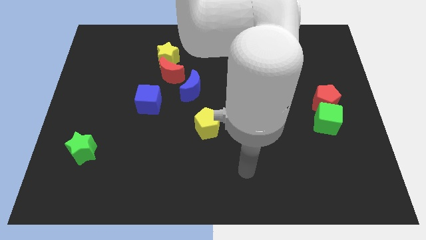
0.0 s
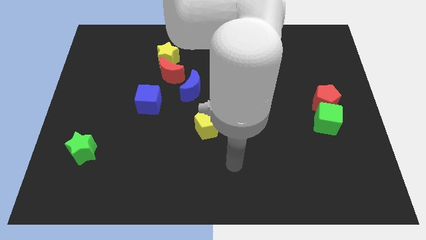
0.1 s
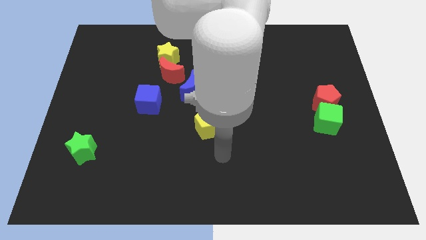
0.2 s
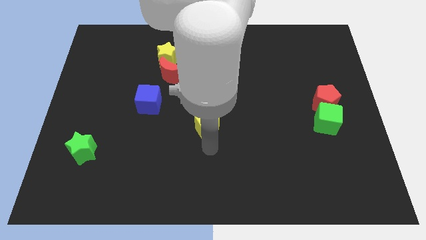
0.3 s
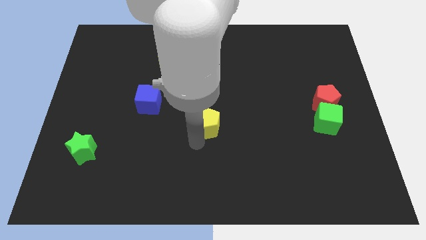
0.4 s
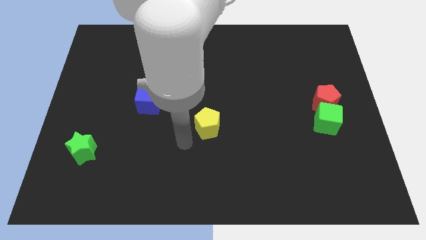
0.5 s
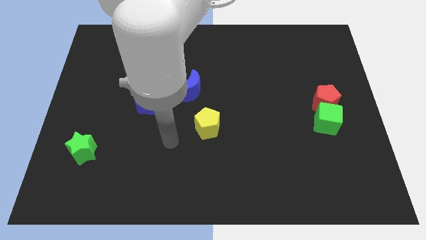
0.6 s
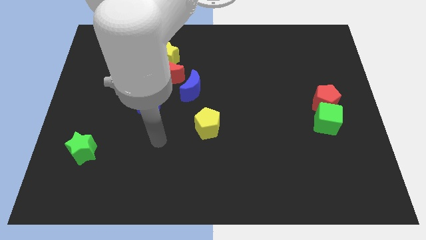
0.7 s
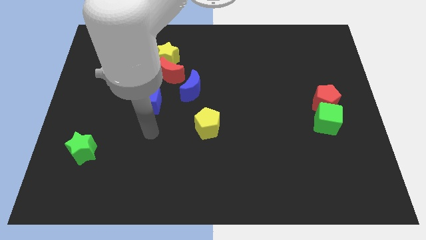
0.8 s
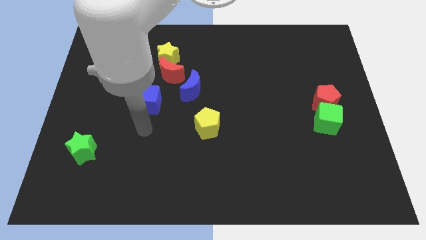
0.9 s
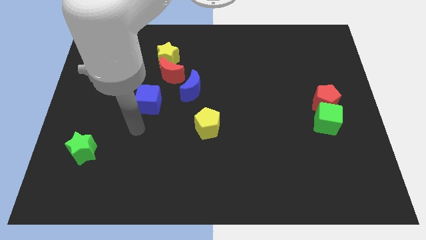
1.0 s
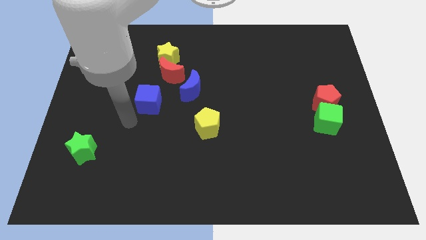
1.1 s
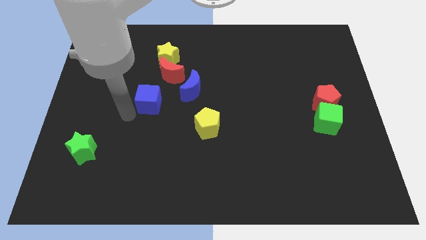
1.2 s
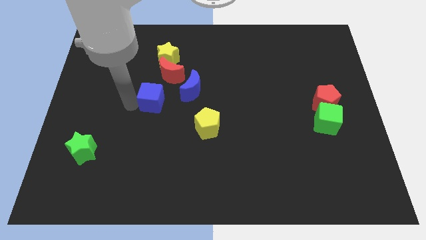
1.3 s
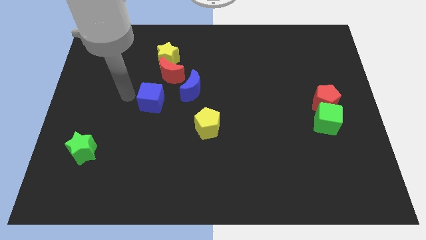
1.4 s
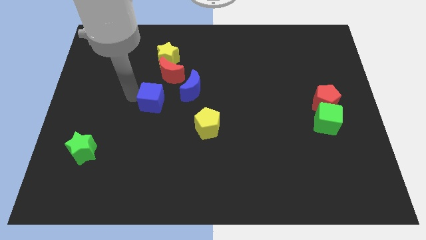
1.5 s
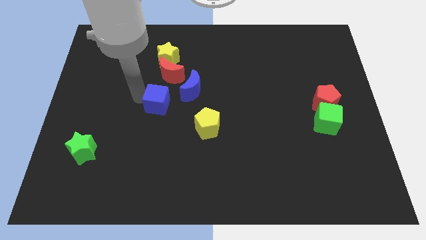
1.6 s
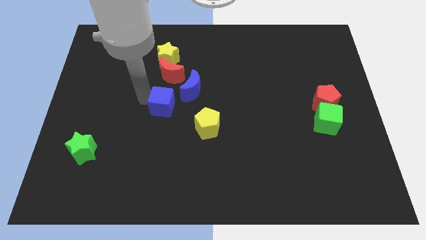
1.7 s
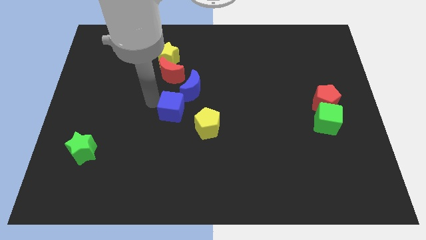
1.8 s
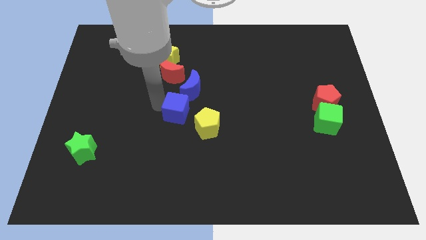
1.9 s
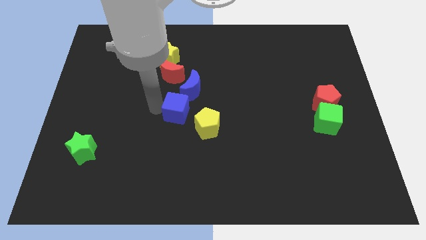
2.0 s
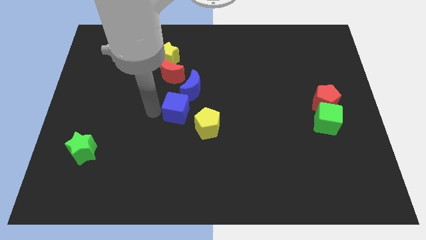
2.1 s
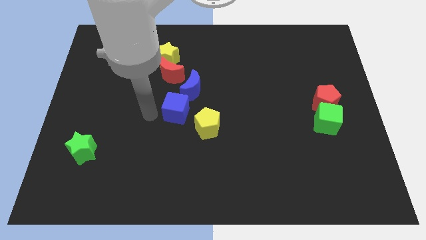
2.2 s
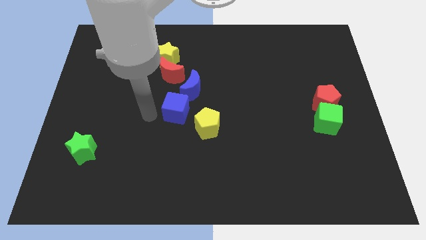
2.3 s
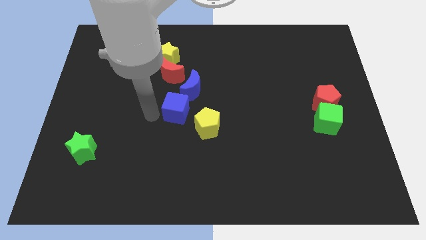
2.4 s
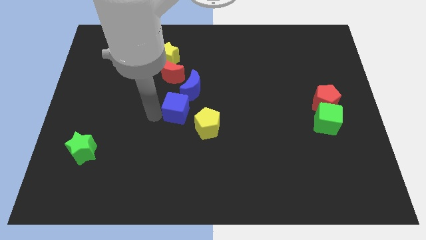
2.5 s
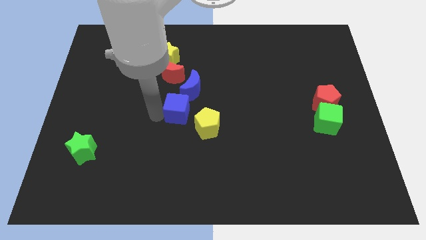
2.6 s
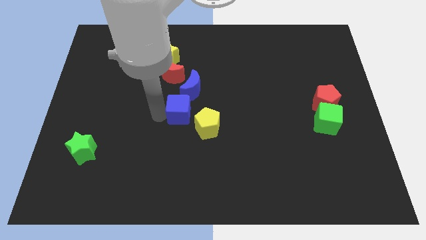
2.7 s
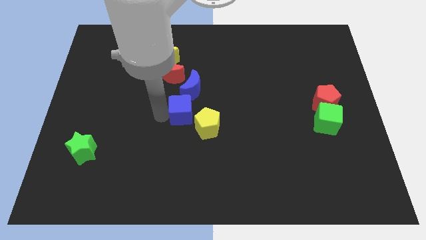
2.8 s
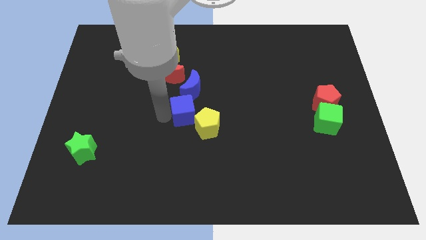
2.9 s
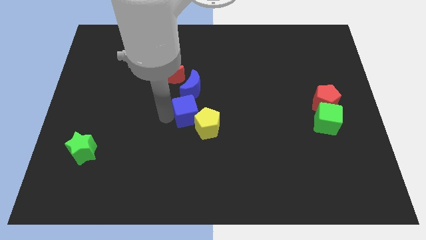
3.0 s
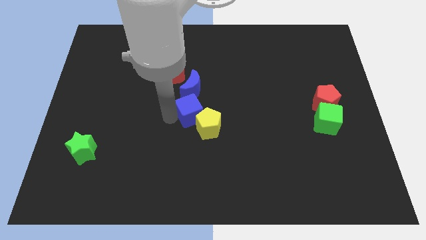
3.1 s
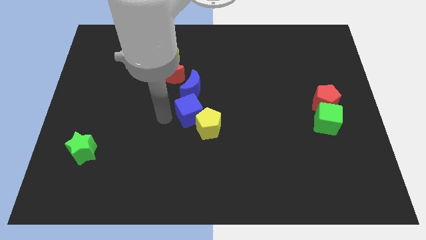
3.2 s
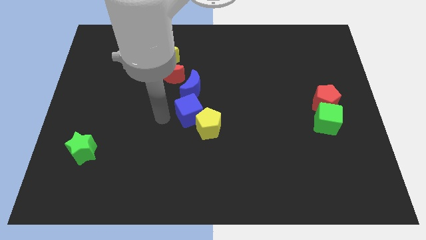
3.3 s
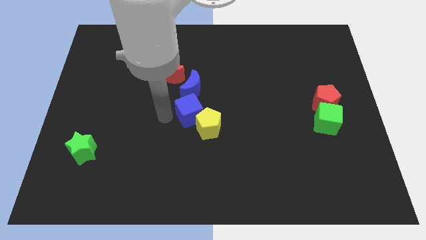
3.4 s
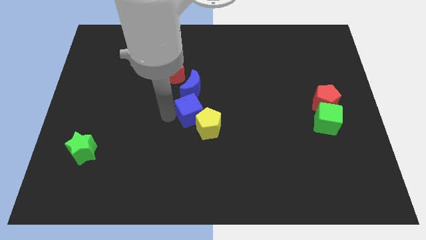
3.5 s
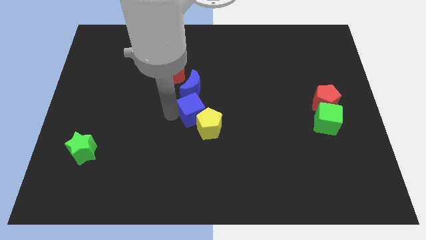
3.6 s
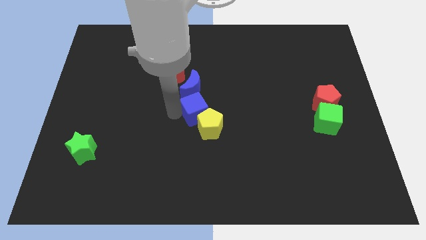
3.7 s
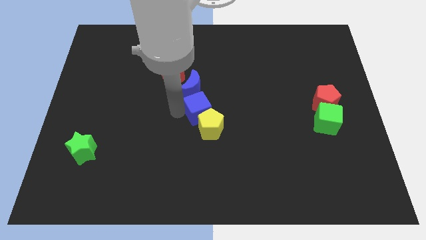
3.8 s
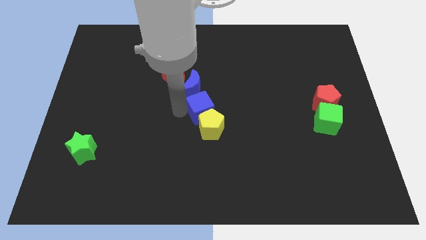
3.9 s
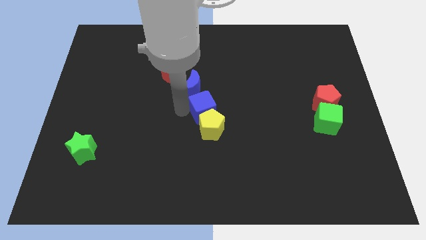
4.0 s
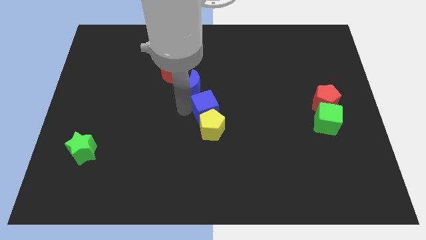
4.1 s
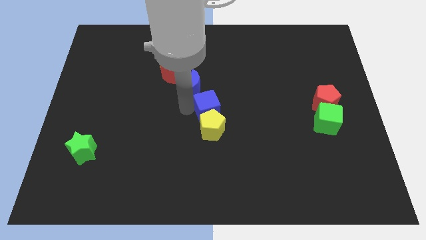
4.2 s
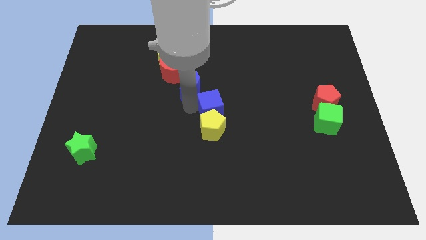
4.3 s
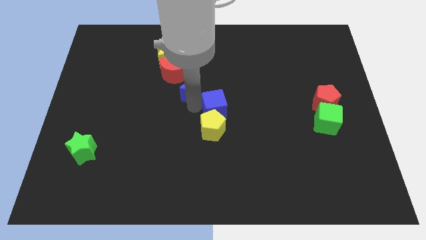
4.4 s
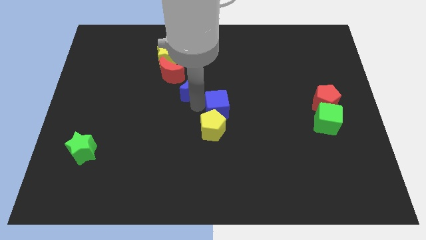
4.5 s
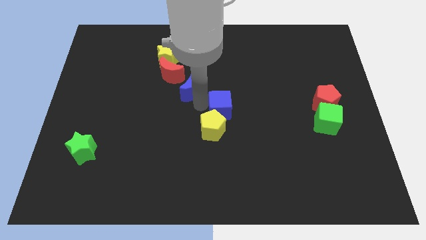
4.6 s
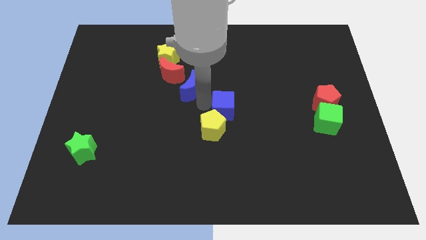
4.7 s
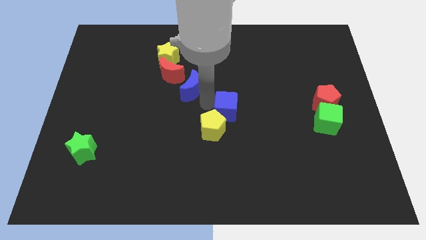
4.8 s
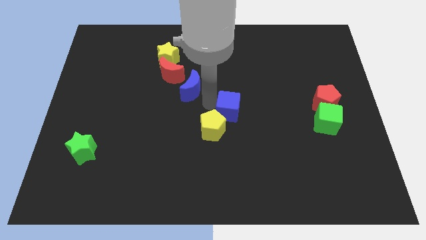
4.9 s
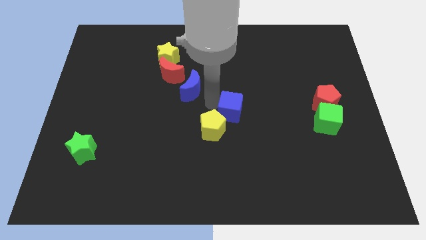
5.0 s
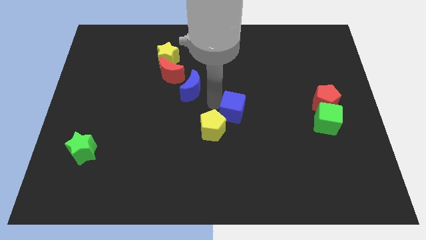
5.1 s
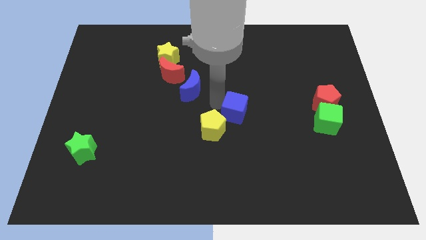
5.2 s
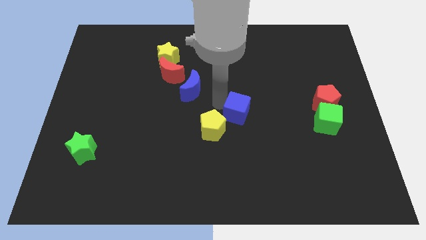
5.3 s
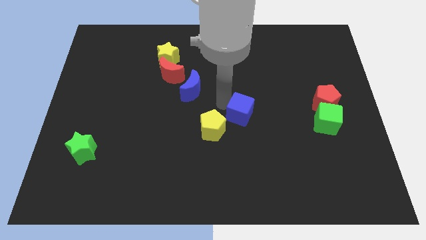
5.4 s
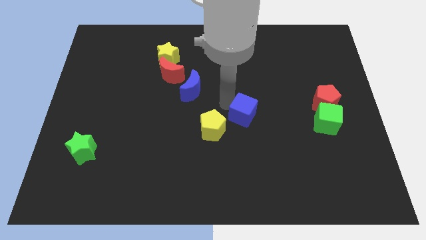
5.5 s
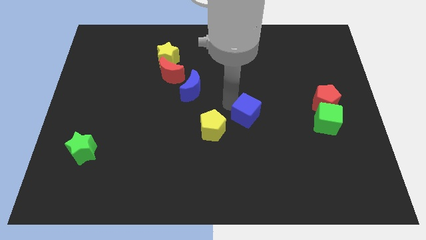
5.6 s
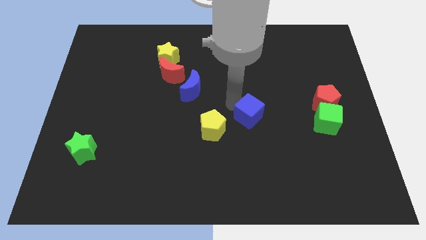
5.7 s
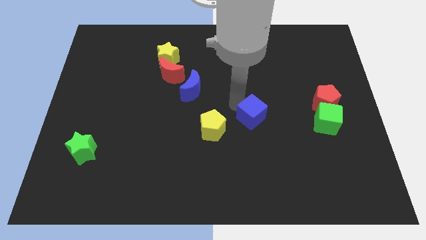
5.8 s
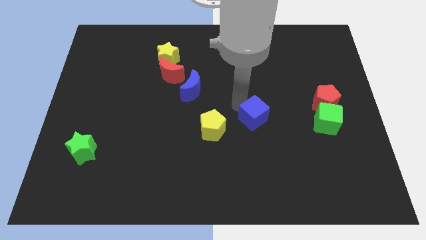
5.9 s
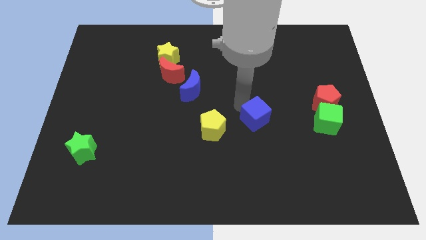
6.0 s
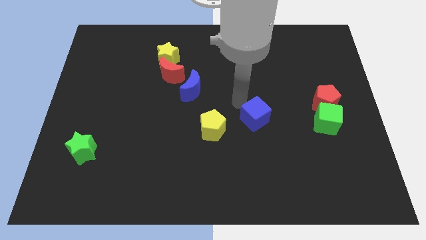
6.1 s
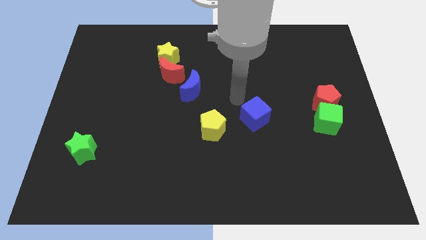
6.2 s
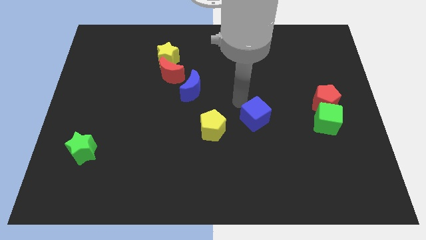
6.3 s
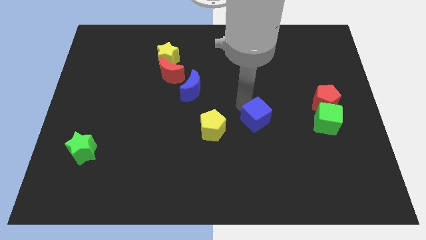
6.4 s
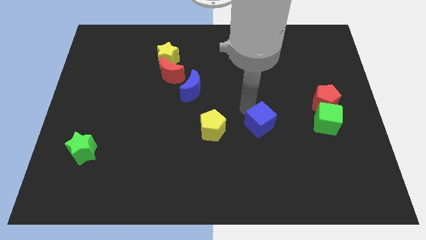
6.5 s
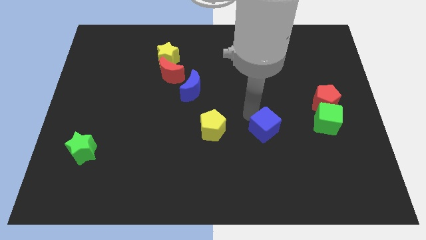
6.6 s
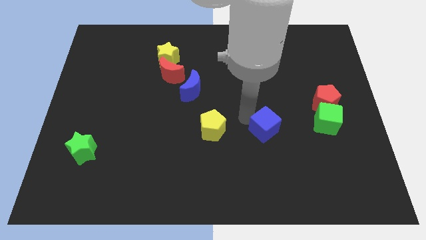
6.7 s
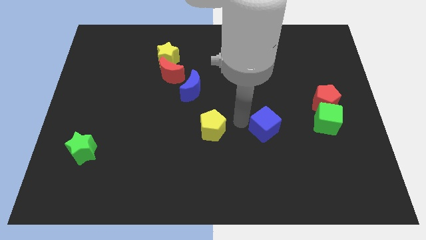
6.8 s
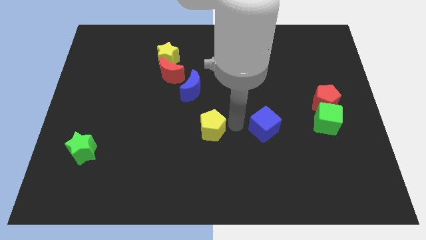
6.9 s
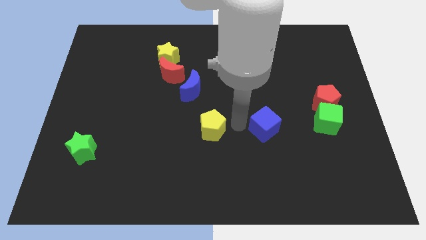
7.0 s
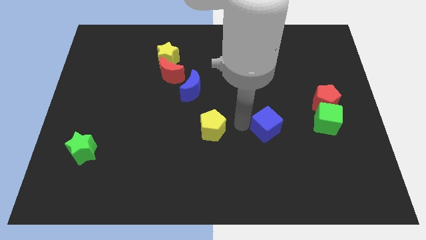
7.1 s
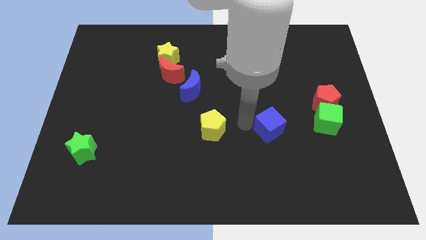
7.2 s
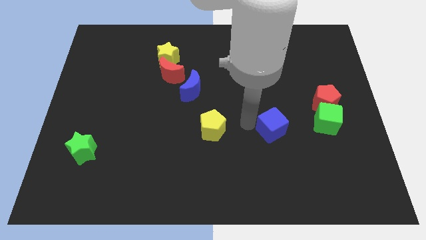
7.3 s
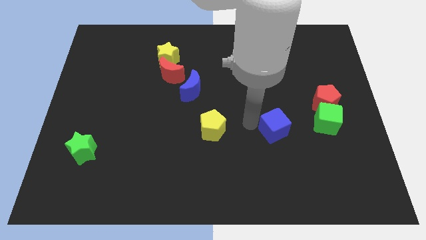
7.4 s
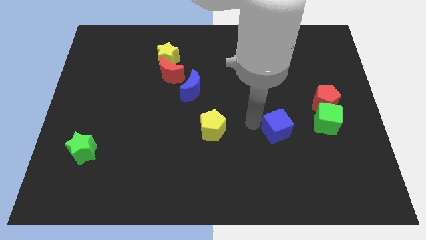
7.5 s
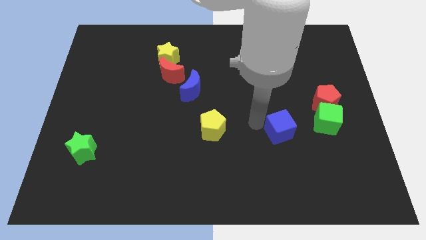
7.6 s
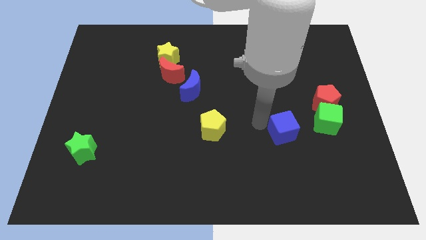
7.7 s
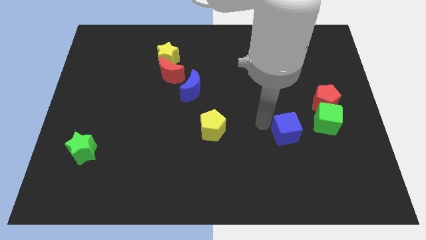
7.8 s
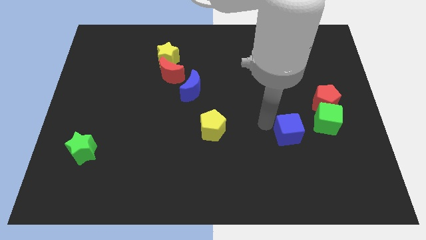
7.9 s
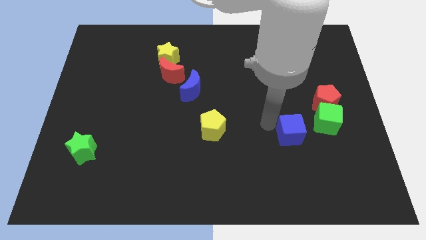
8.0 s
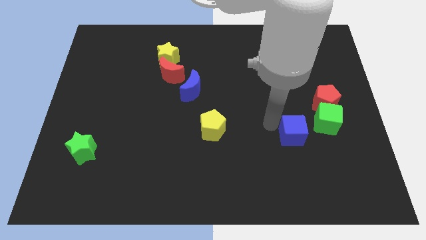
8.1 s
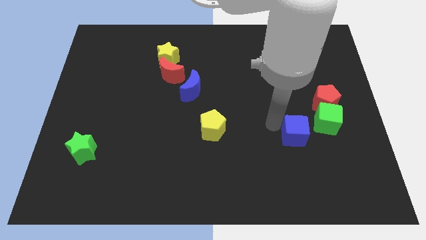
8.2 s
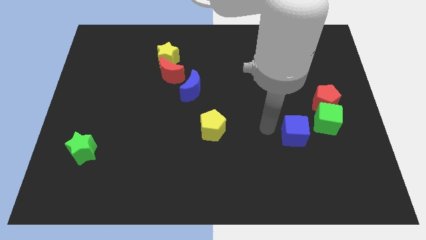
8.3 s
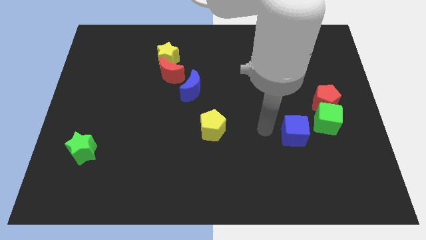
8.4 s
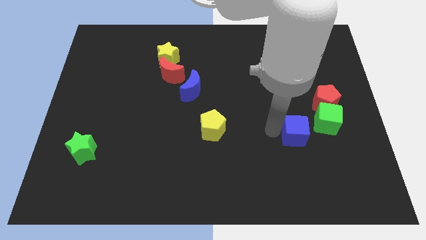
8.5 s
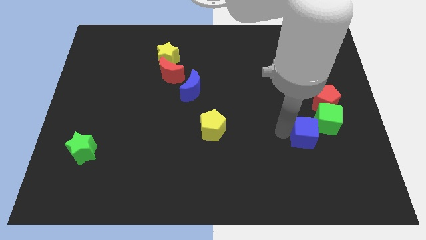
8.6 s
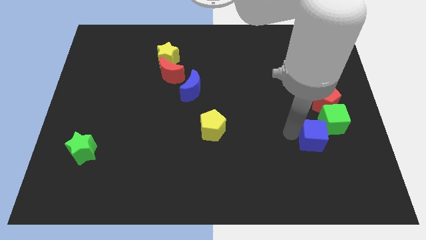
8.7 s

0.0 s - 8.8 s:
push the blue cube to the bottom side of the red pentagon
